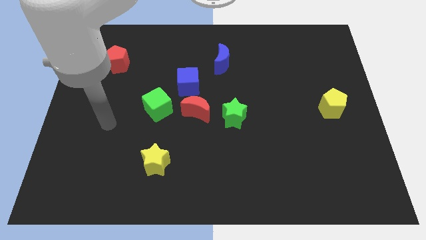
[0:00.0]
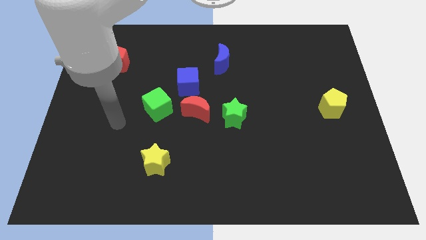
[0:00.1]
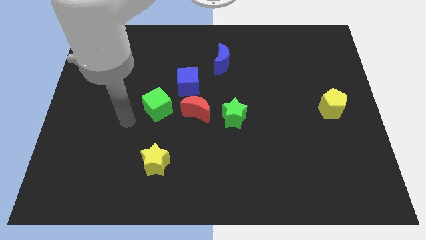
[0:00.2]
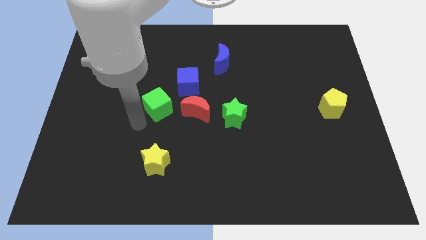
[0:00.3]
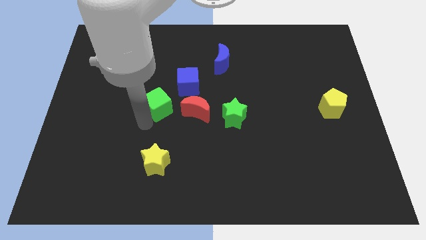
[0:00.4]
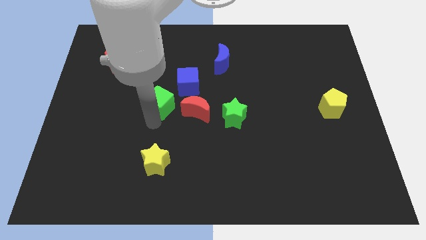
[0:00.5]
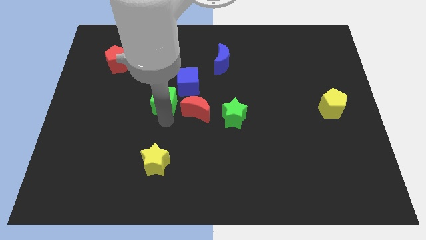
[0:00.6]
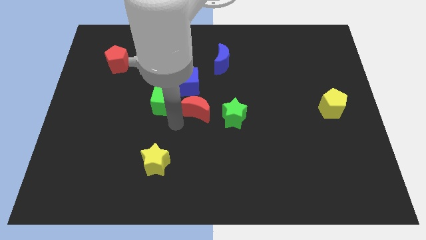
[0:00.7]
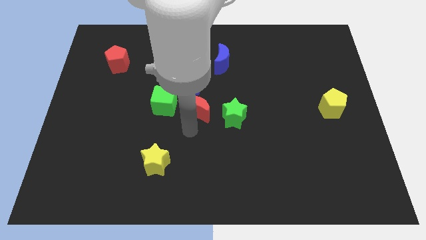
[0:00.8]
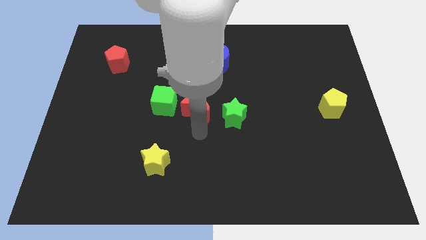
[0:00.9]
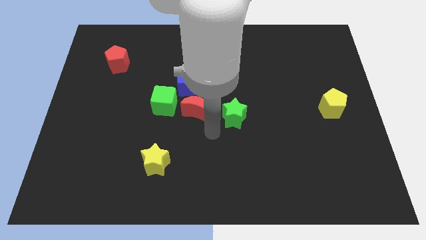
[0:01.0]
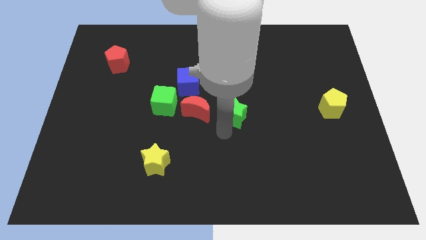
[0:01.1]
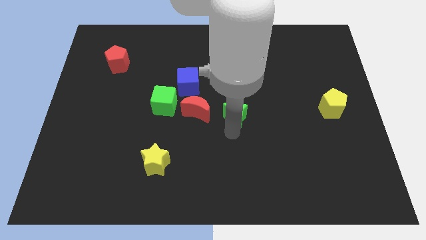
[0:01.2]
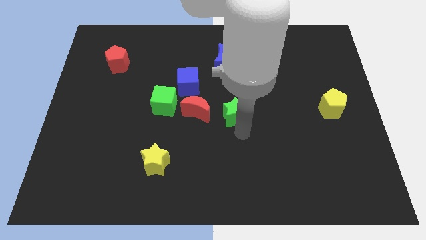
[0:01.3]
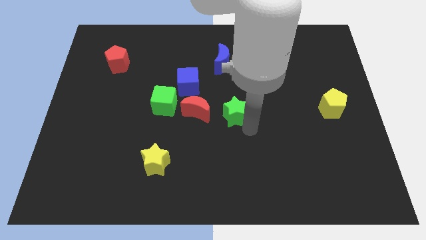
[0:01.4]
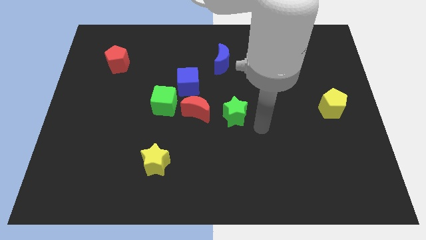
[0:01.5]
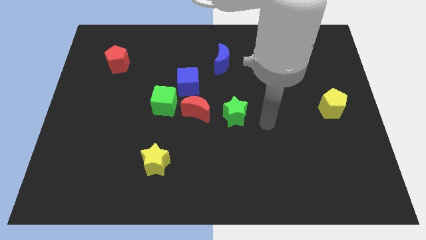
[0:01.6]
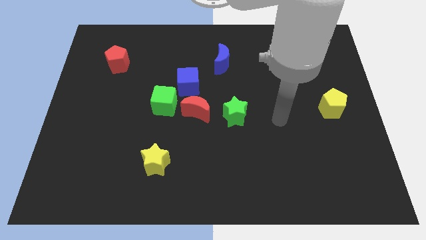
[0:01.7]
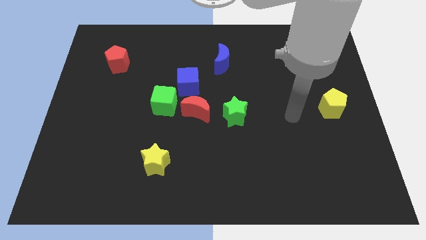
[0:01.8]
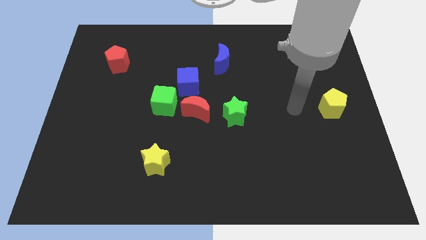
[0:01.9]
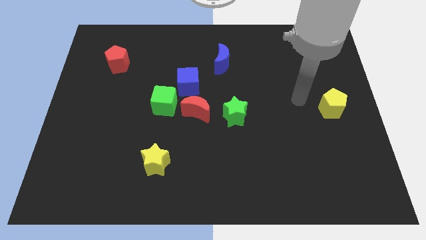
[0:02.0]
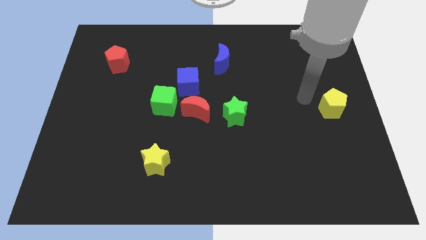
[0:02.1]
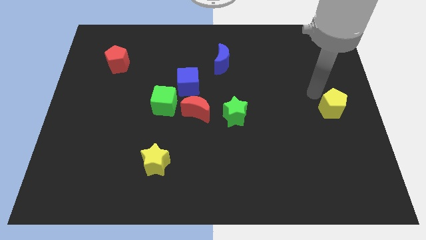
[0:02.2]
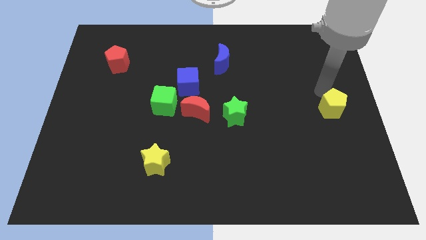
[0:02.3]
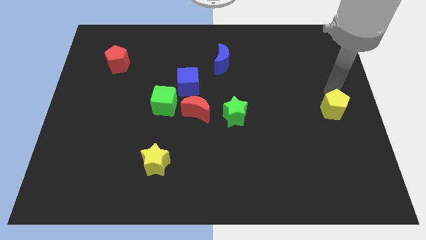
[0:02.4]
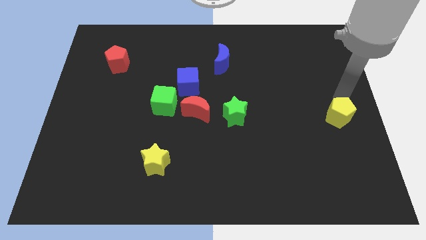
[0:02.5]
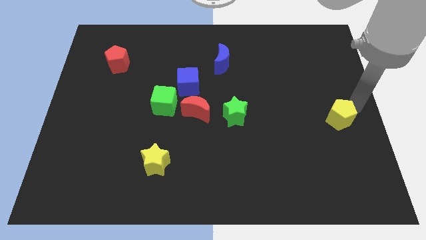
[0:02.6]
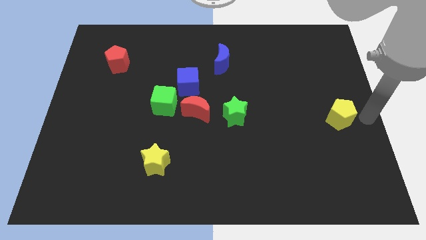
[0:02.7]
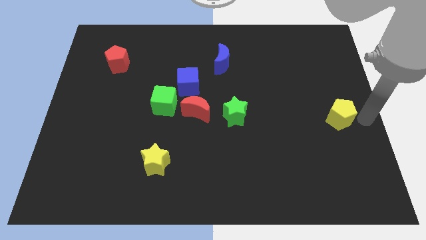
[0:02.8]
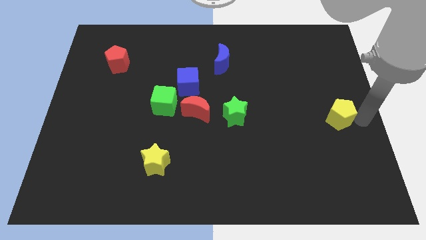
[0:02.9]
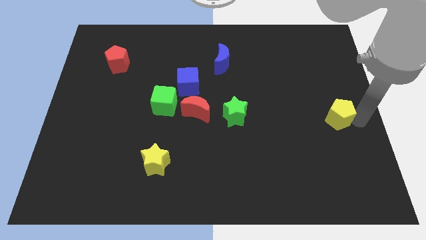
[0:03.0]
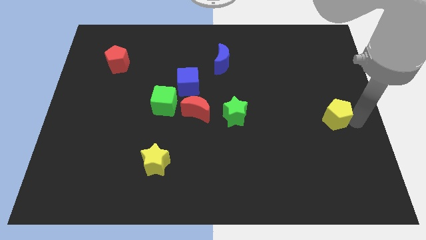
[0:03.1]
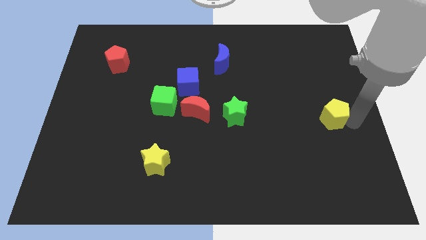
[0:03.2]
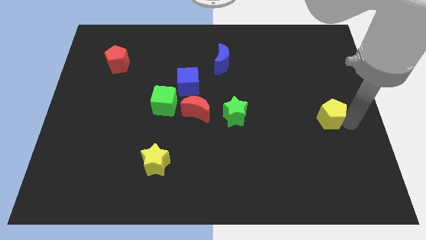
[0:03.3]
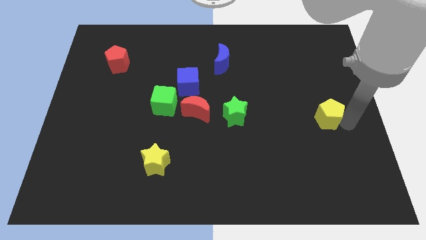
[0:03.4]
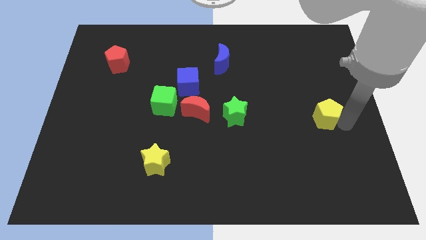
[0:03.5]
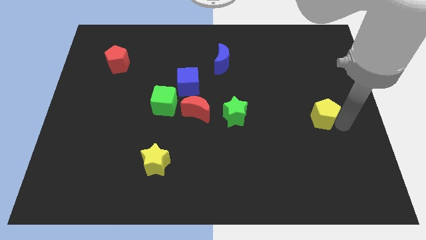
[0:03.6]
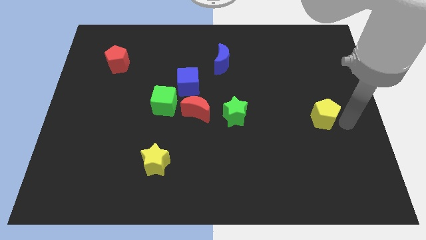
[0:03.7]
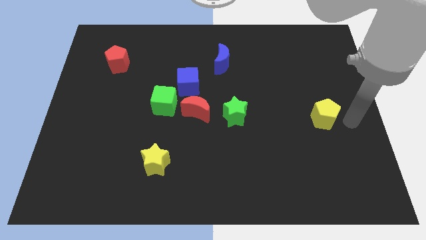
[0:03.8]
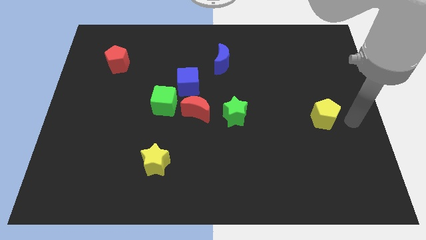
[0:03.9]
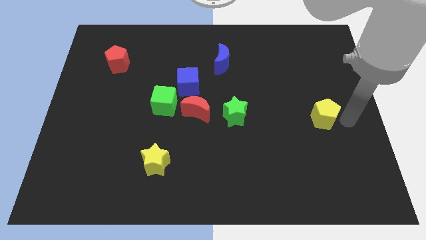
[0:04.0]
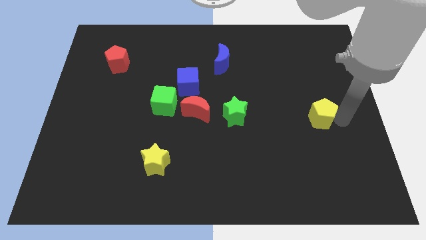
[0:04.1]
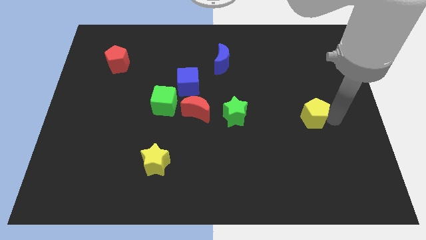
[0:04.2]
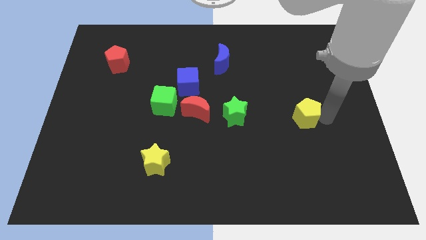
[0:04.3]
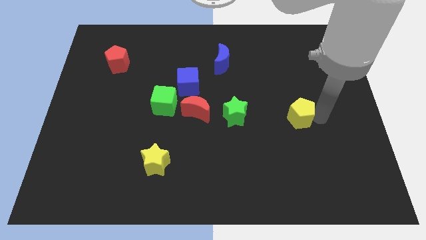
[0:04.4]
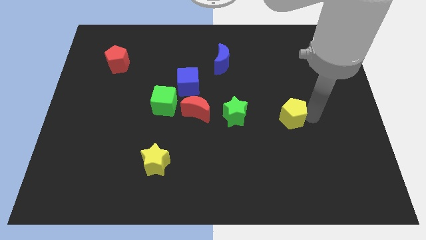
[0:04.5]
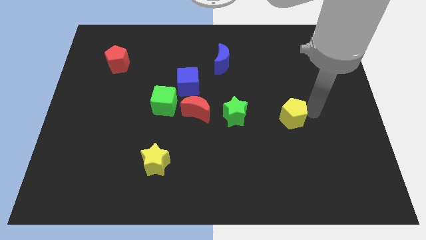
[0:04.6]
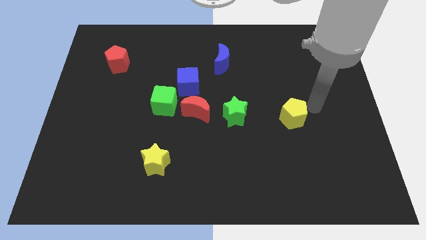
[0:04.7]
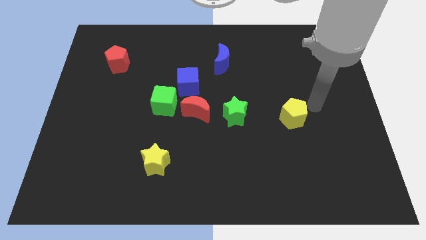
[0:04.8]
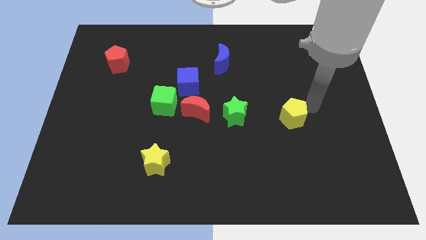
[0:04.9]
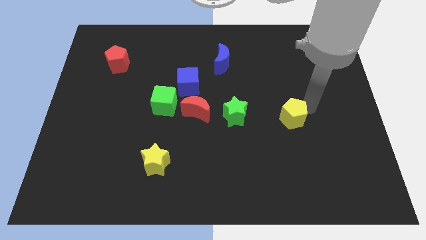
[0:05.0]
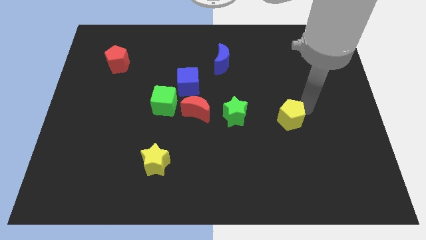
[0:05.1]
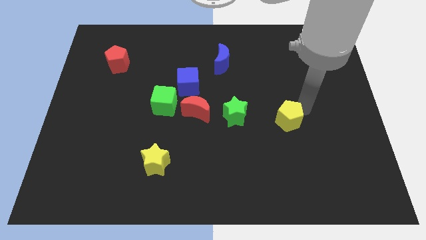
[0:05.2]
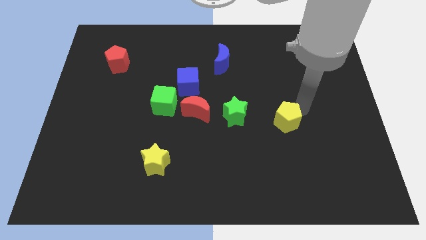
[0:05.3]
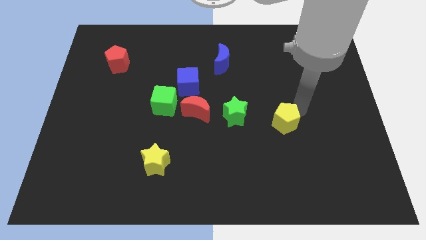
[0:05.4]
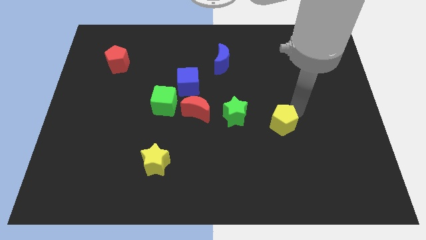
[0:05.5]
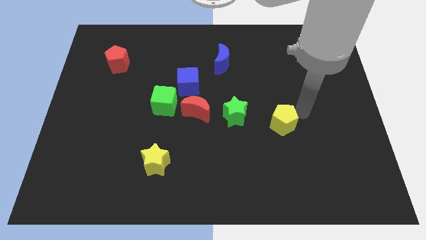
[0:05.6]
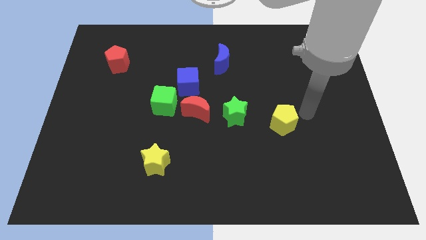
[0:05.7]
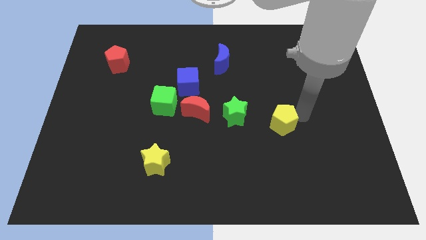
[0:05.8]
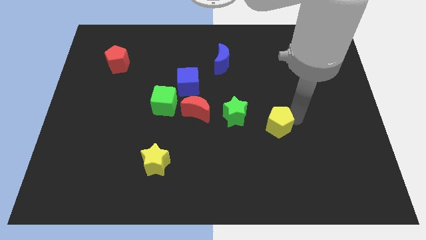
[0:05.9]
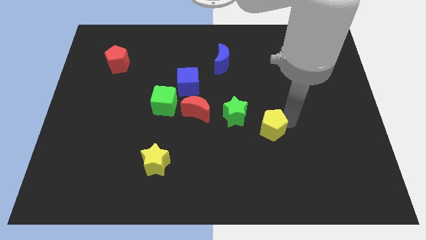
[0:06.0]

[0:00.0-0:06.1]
move the yellow pentagon to the bottom right of the green star
